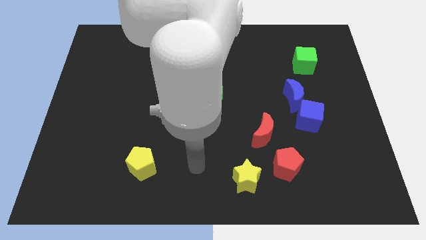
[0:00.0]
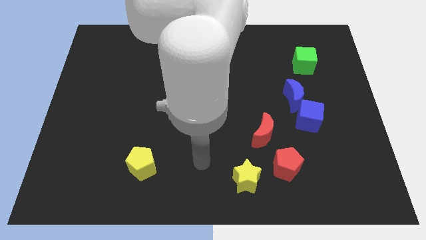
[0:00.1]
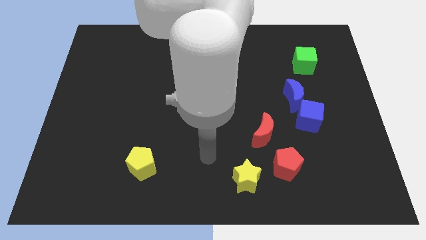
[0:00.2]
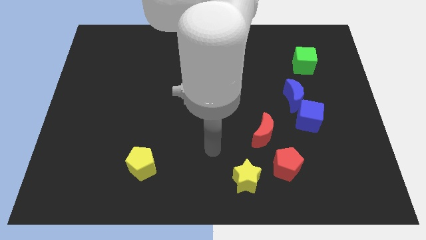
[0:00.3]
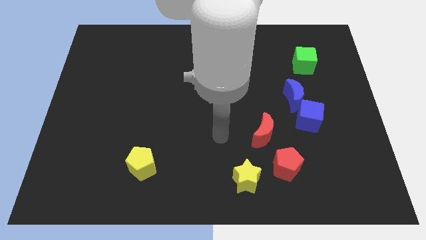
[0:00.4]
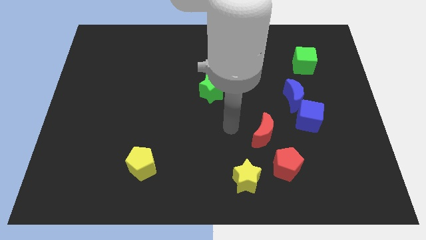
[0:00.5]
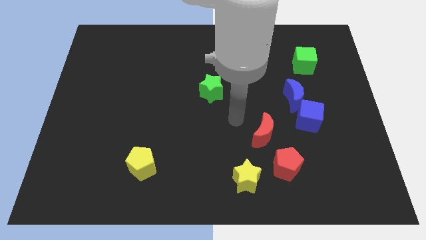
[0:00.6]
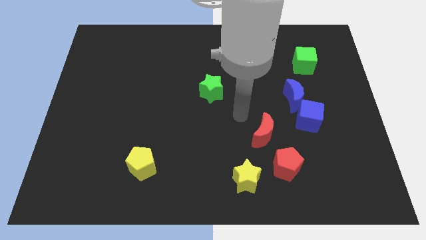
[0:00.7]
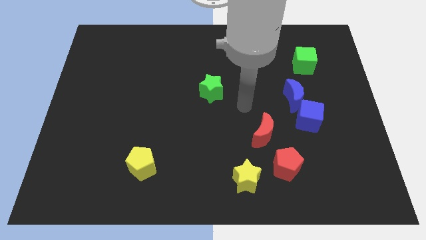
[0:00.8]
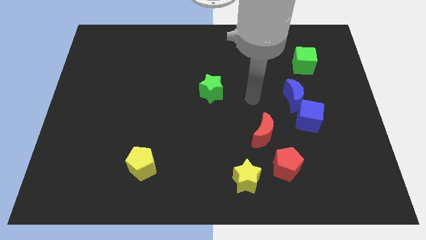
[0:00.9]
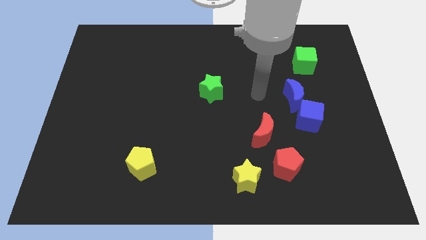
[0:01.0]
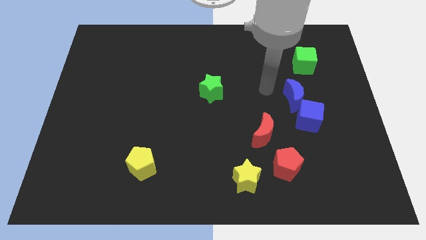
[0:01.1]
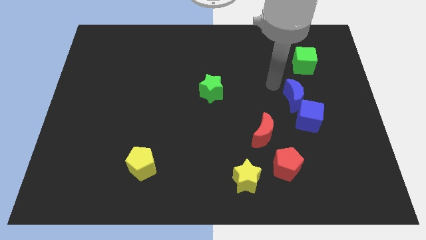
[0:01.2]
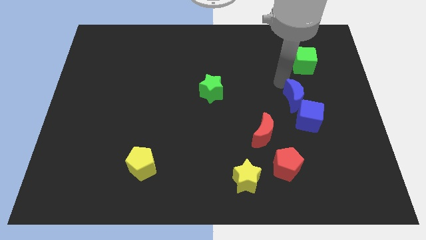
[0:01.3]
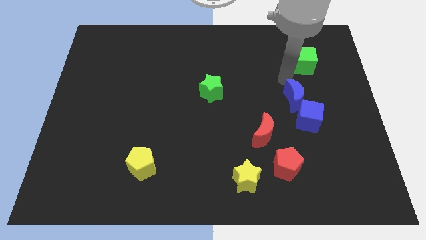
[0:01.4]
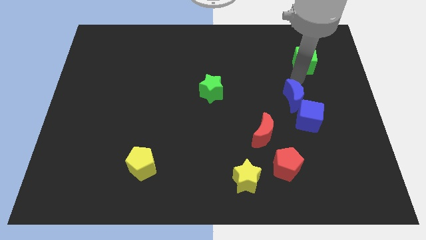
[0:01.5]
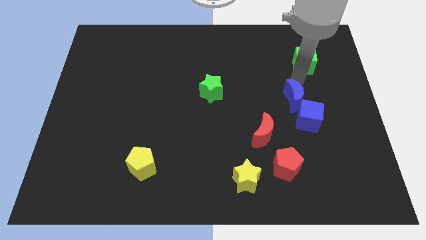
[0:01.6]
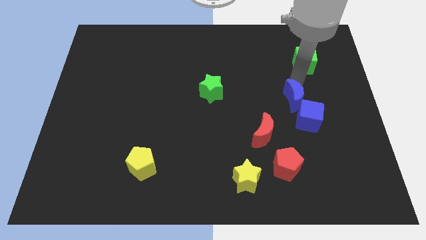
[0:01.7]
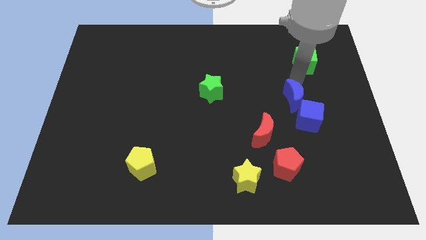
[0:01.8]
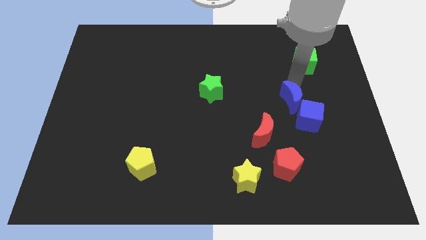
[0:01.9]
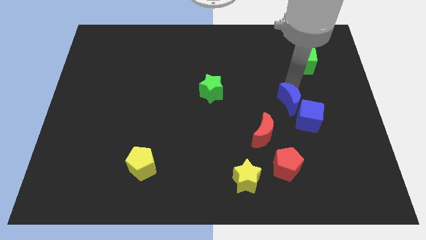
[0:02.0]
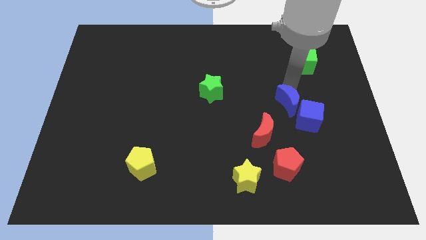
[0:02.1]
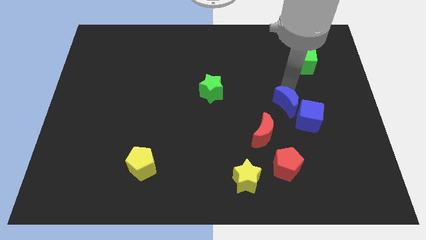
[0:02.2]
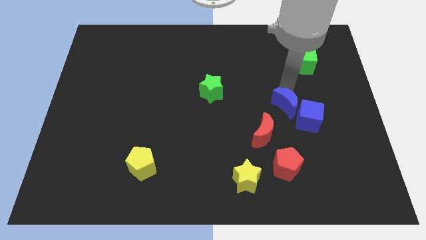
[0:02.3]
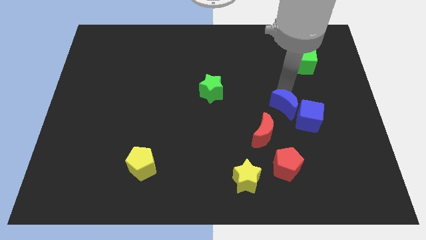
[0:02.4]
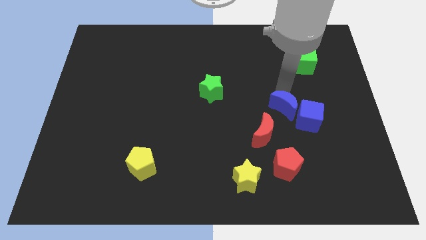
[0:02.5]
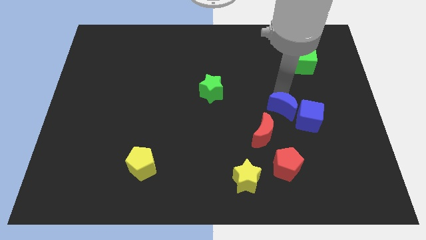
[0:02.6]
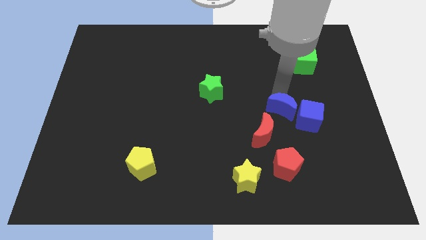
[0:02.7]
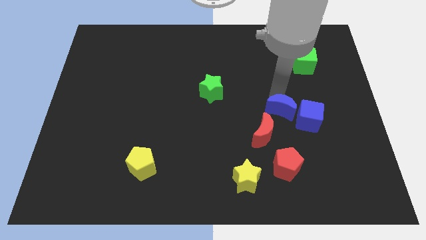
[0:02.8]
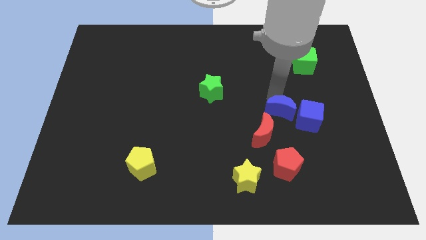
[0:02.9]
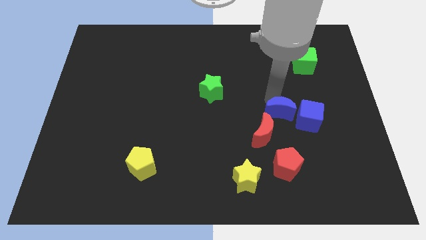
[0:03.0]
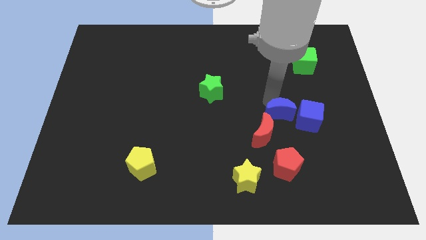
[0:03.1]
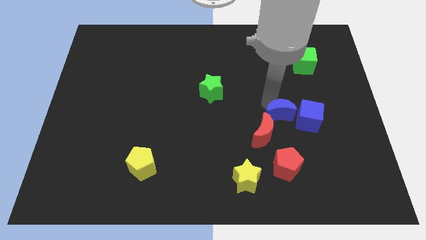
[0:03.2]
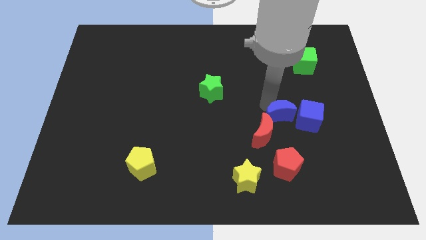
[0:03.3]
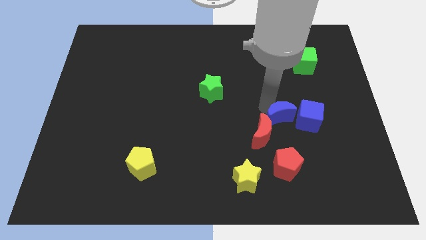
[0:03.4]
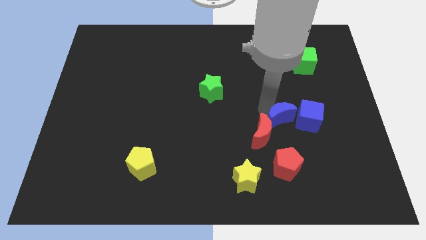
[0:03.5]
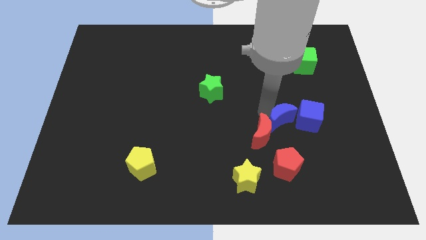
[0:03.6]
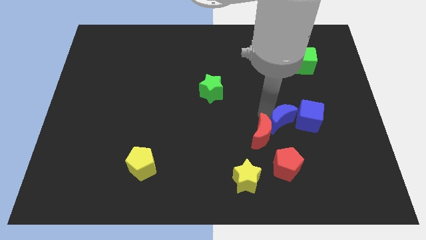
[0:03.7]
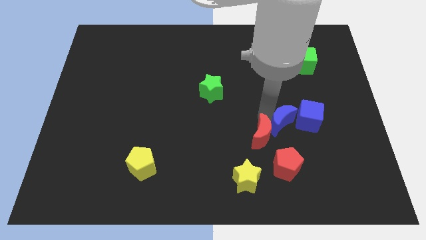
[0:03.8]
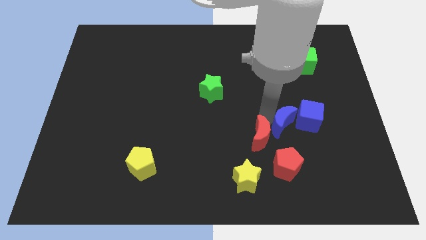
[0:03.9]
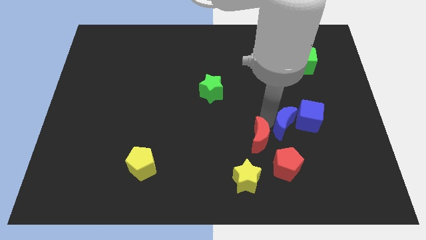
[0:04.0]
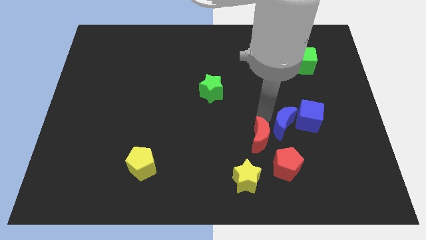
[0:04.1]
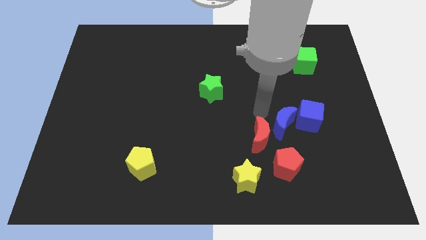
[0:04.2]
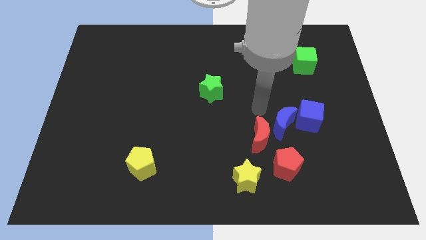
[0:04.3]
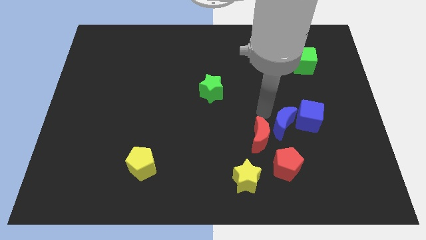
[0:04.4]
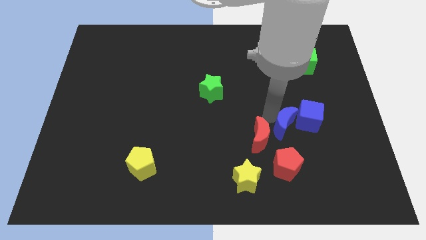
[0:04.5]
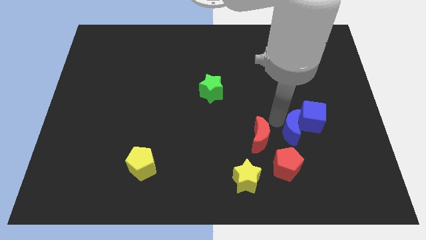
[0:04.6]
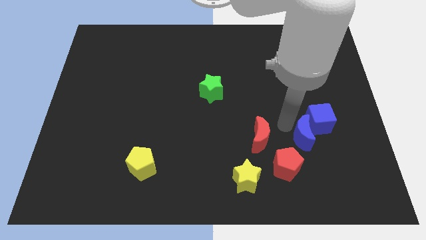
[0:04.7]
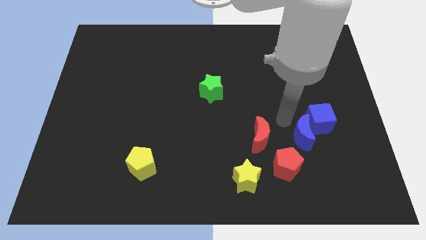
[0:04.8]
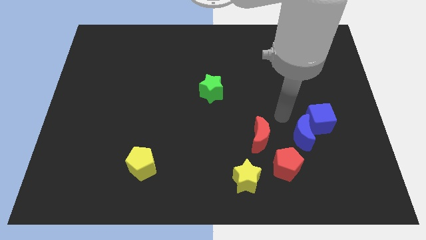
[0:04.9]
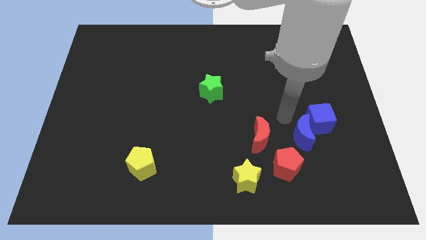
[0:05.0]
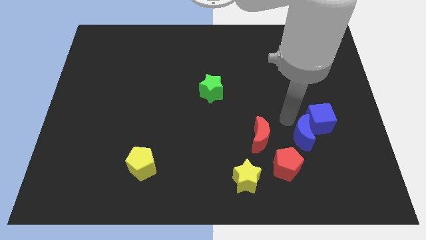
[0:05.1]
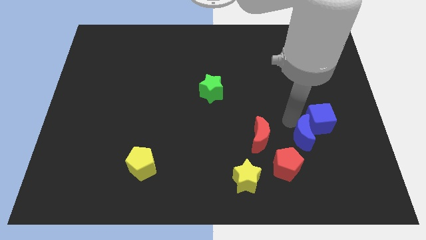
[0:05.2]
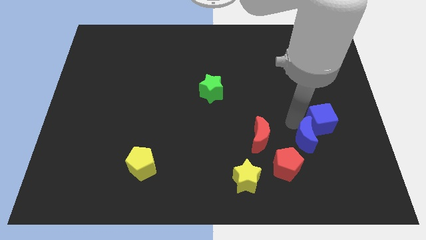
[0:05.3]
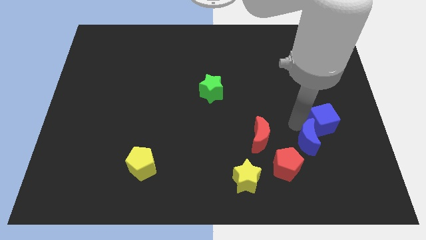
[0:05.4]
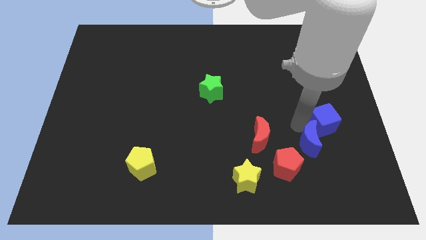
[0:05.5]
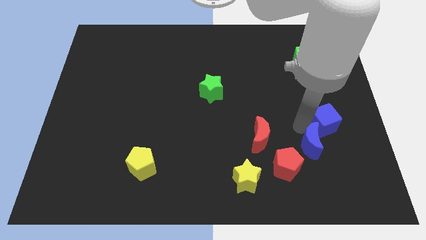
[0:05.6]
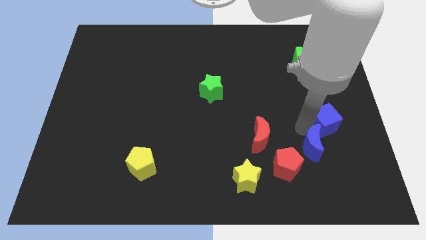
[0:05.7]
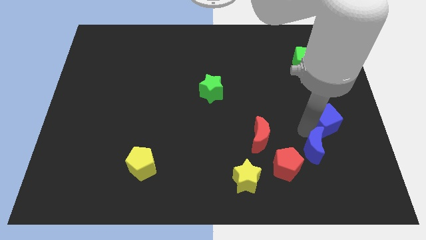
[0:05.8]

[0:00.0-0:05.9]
move the blue moon just right of the red pentagon

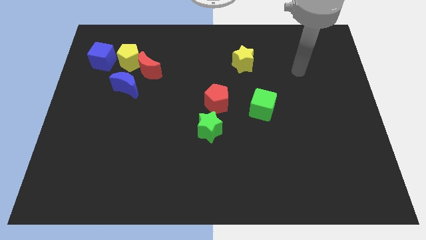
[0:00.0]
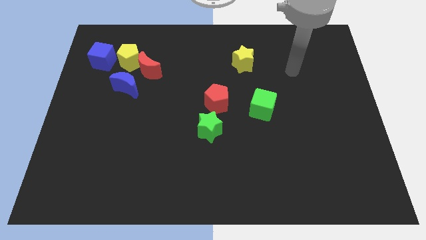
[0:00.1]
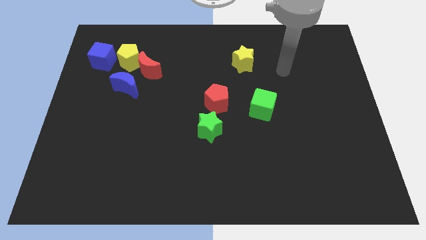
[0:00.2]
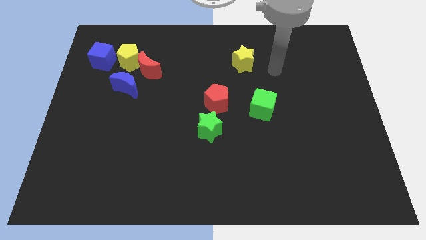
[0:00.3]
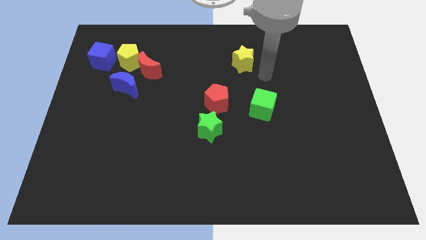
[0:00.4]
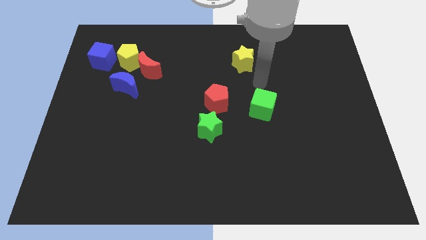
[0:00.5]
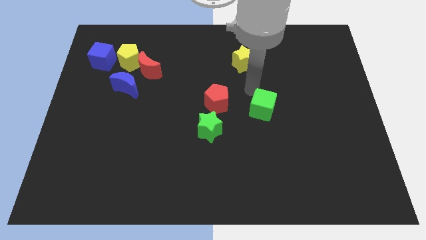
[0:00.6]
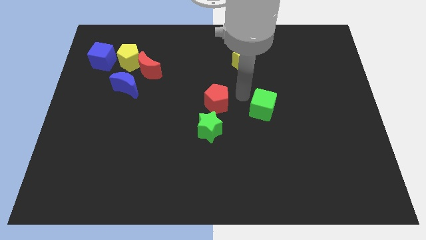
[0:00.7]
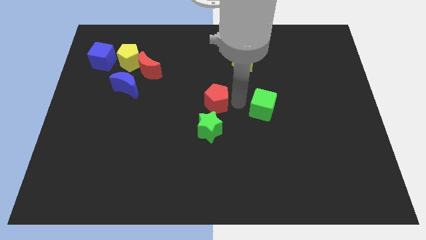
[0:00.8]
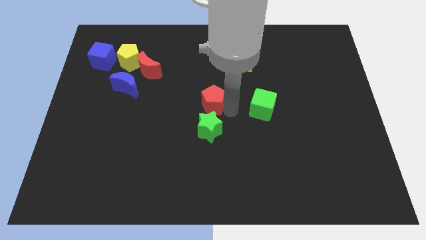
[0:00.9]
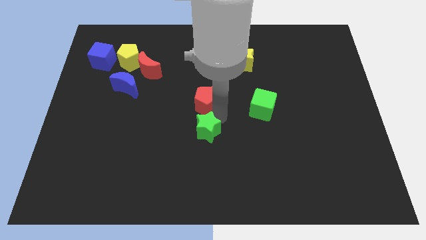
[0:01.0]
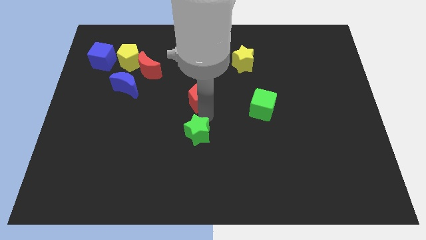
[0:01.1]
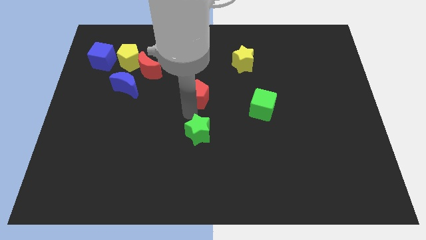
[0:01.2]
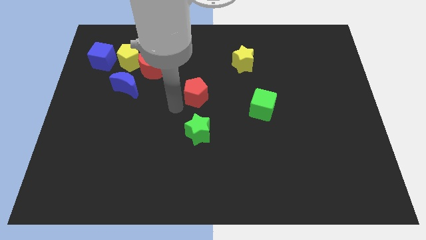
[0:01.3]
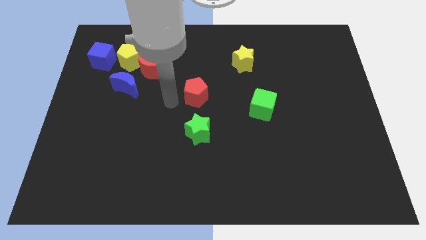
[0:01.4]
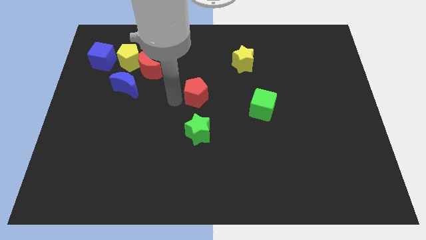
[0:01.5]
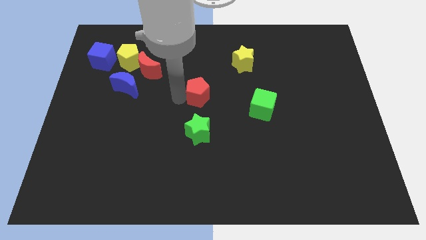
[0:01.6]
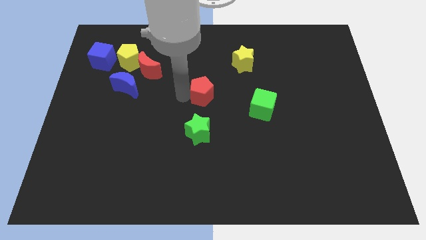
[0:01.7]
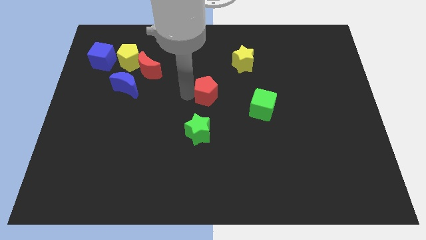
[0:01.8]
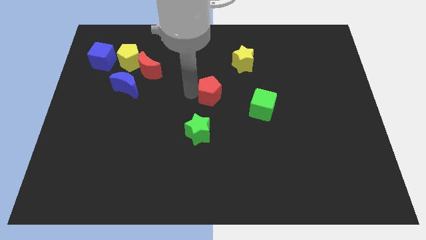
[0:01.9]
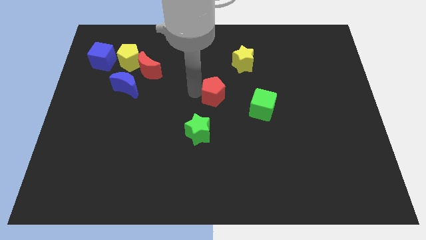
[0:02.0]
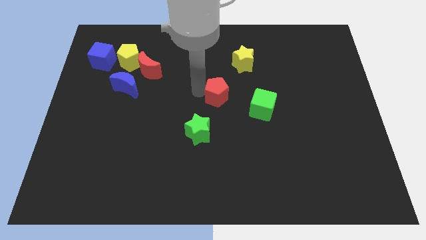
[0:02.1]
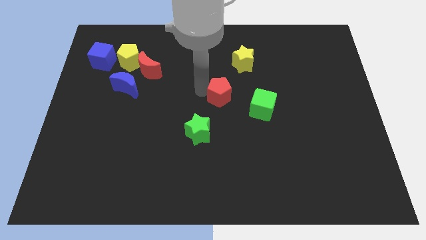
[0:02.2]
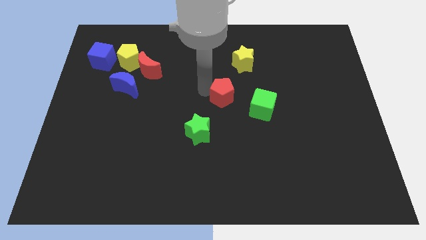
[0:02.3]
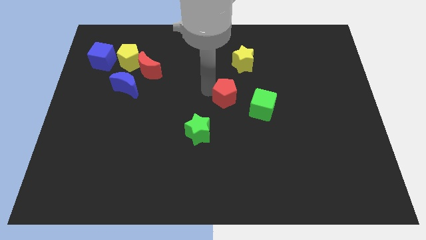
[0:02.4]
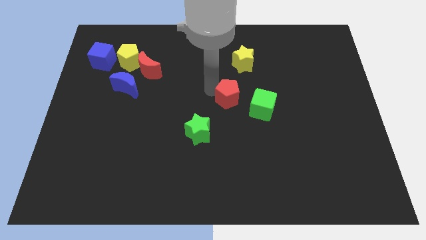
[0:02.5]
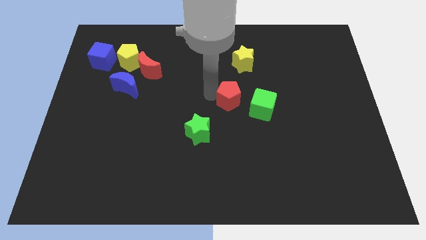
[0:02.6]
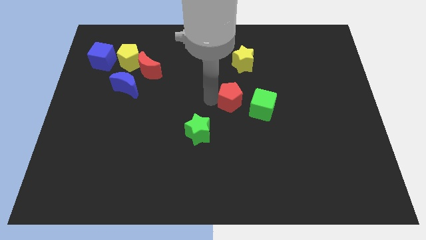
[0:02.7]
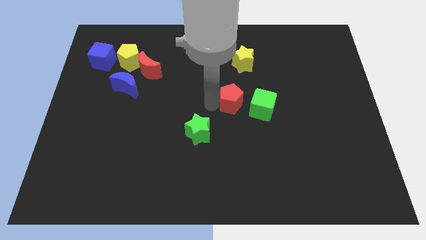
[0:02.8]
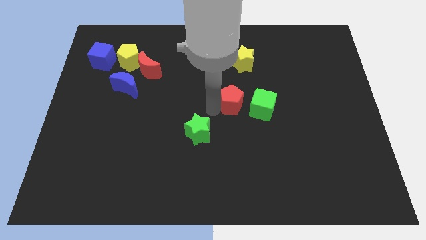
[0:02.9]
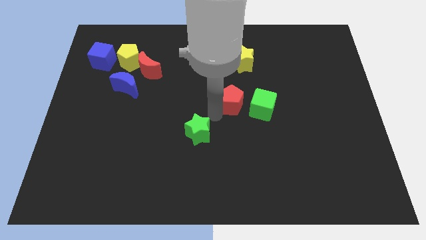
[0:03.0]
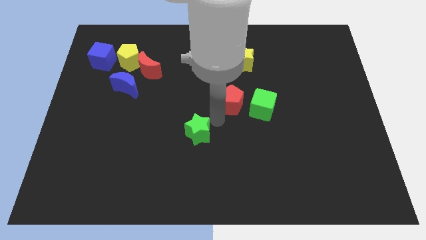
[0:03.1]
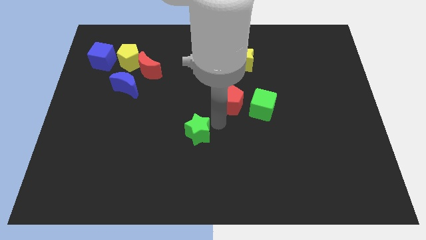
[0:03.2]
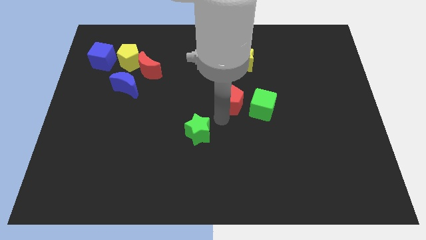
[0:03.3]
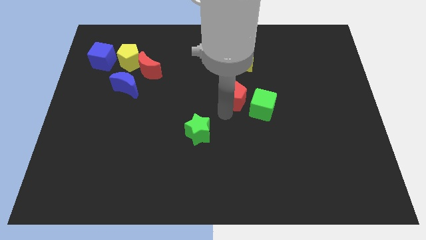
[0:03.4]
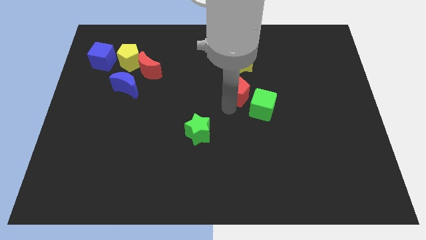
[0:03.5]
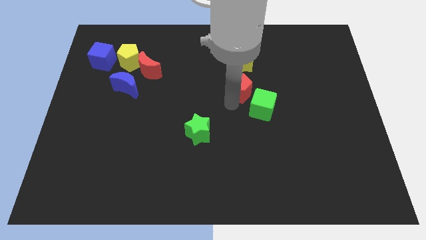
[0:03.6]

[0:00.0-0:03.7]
put the red pentagon above the green cube
